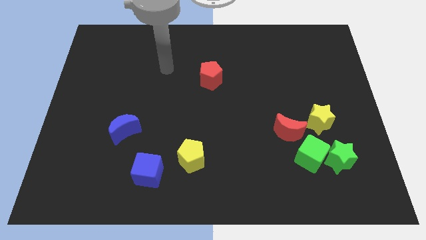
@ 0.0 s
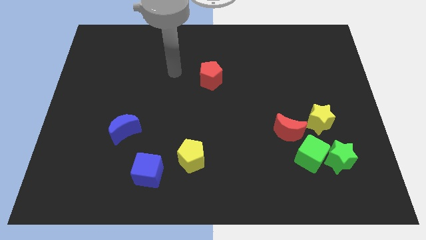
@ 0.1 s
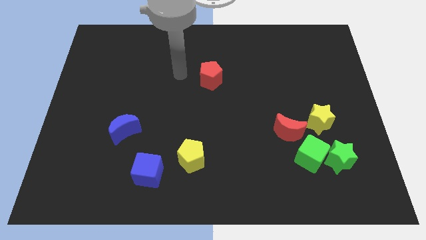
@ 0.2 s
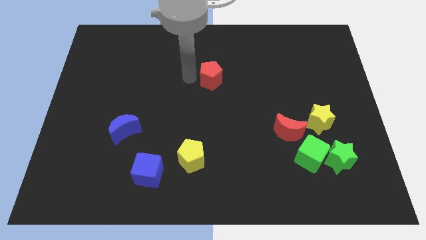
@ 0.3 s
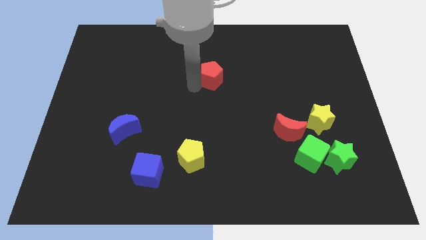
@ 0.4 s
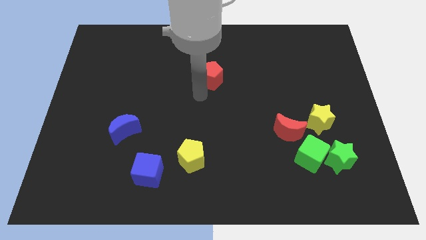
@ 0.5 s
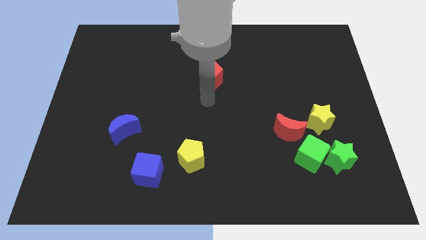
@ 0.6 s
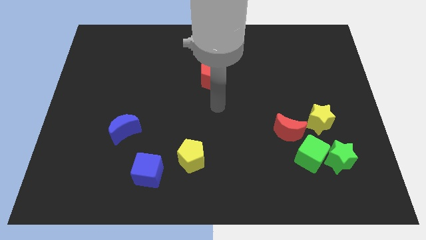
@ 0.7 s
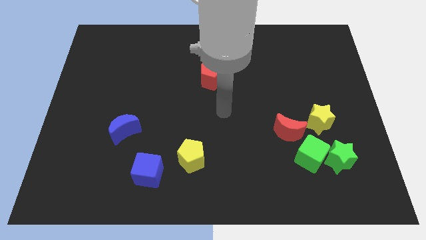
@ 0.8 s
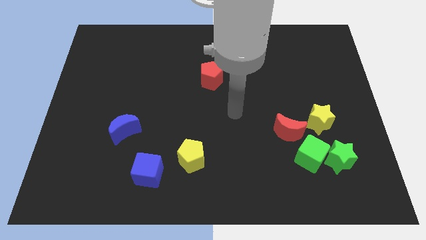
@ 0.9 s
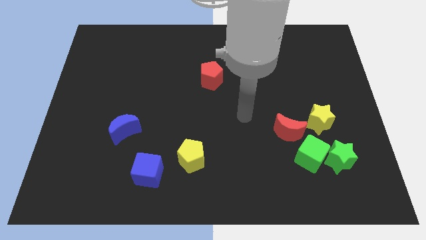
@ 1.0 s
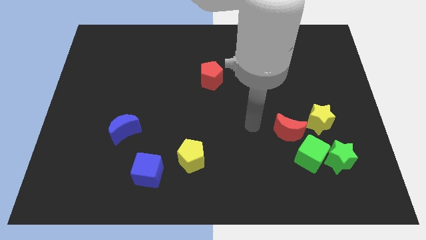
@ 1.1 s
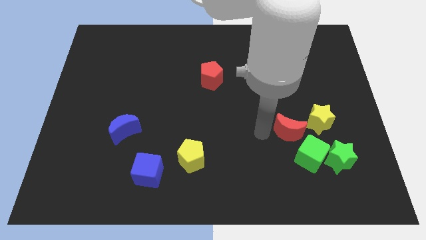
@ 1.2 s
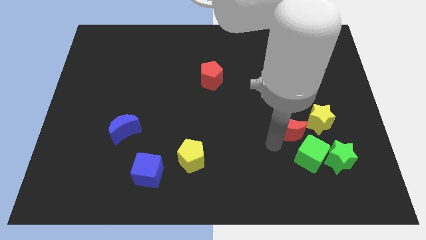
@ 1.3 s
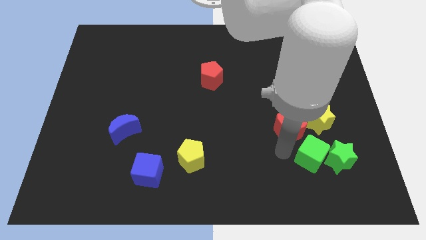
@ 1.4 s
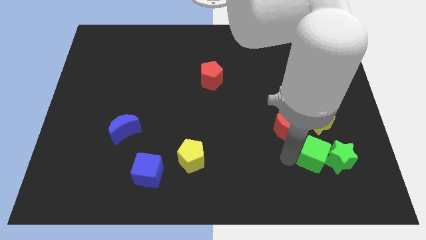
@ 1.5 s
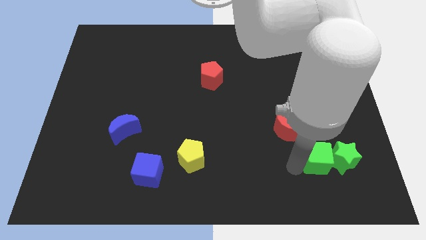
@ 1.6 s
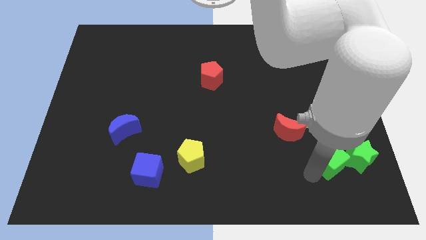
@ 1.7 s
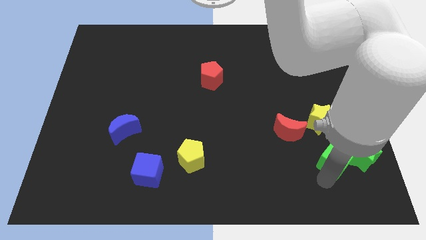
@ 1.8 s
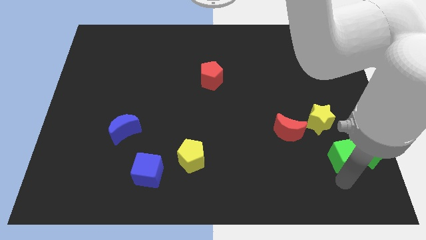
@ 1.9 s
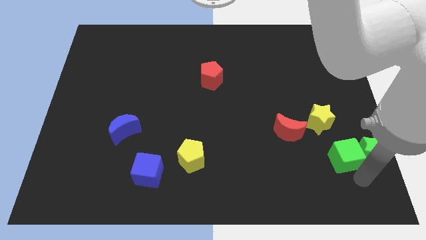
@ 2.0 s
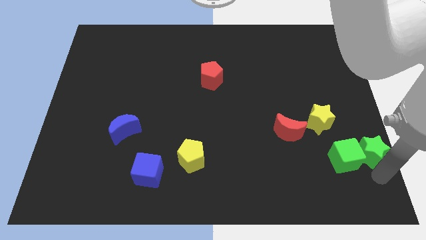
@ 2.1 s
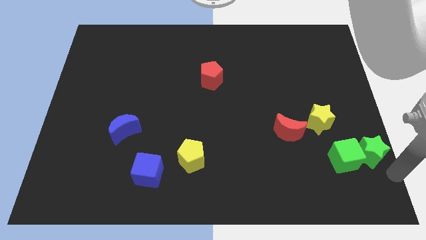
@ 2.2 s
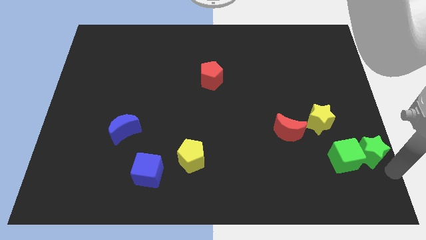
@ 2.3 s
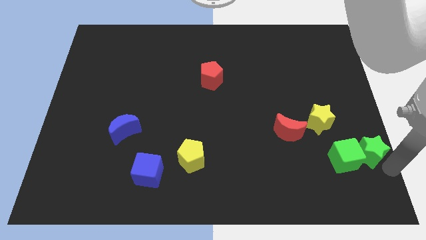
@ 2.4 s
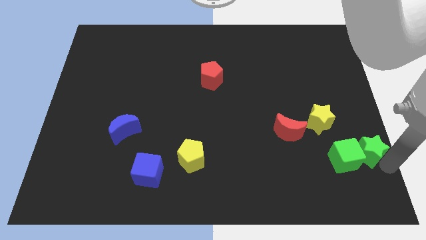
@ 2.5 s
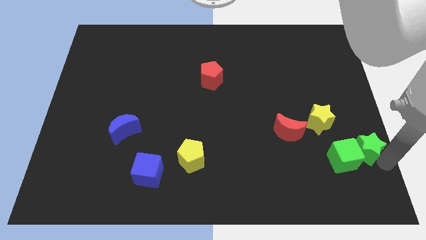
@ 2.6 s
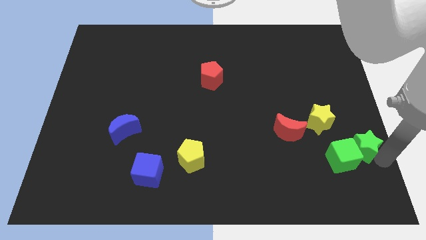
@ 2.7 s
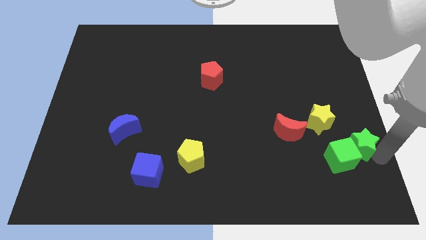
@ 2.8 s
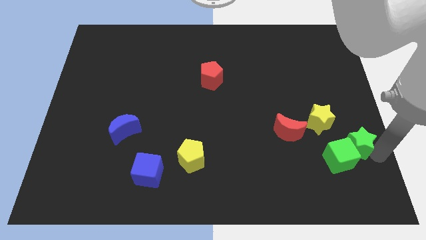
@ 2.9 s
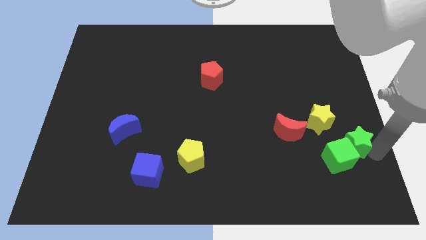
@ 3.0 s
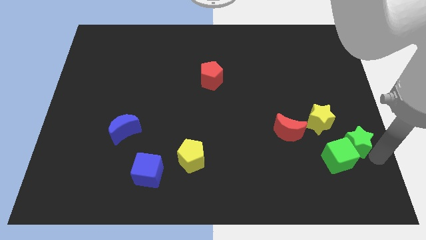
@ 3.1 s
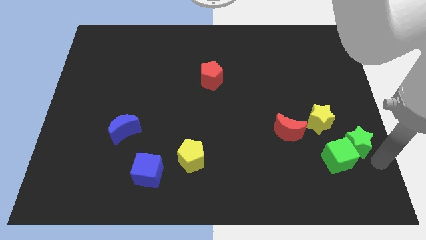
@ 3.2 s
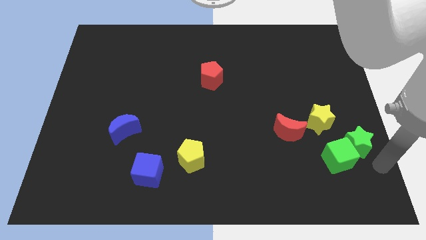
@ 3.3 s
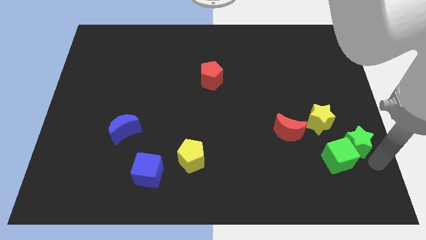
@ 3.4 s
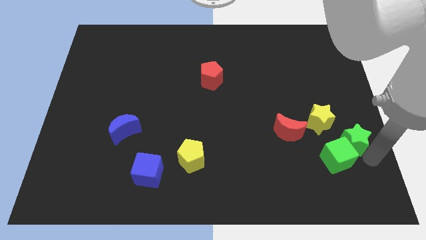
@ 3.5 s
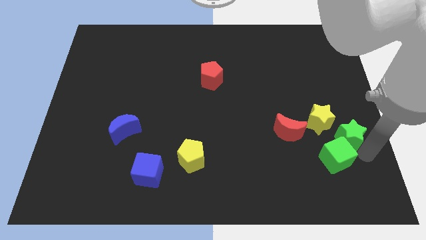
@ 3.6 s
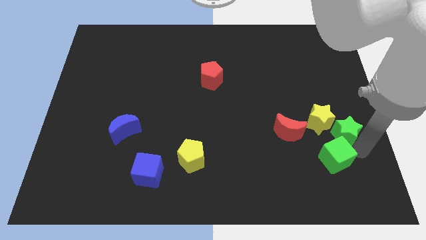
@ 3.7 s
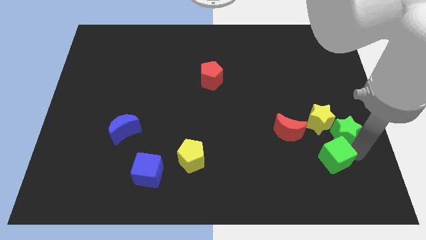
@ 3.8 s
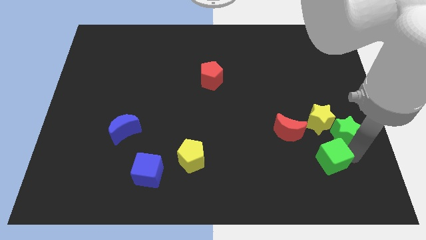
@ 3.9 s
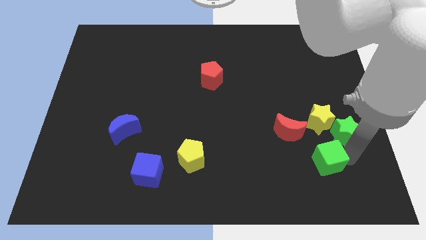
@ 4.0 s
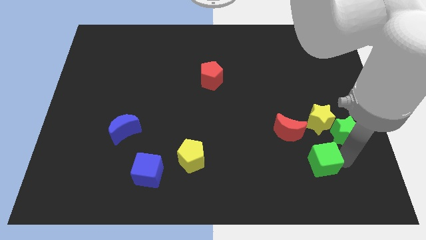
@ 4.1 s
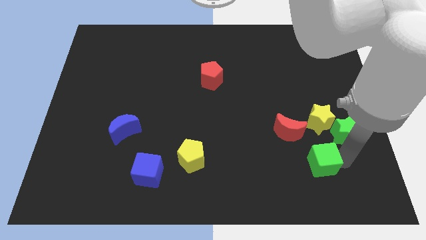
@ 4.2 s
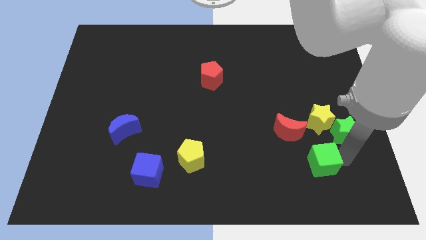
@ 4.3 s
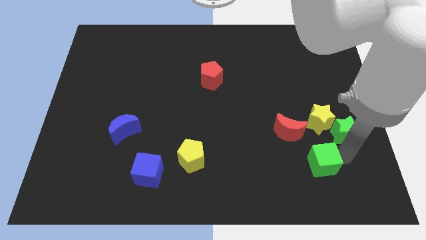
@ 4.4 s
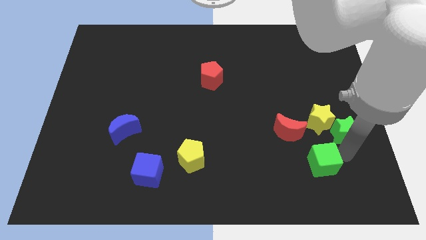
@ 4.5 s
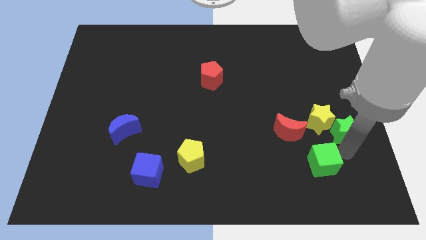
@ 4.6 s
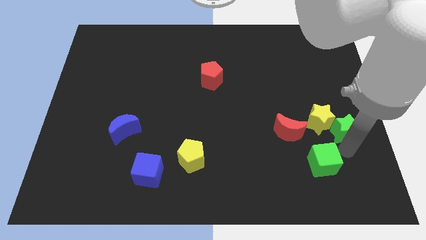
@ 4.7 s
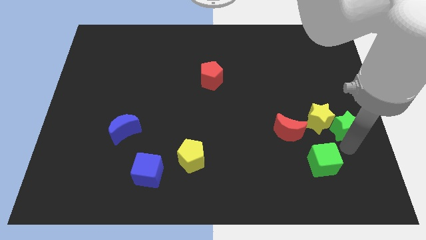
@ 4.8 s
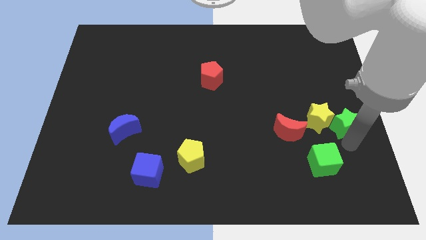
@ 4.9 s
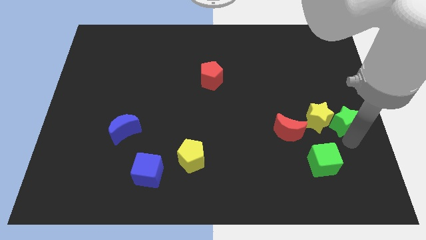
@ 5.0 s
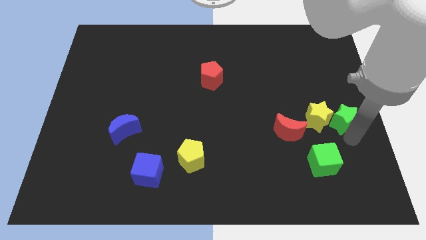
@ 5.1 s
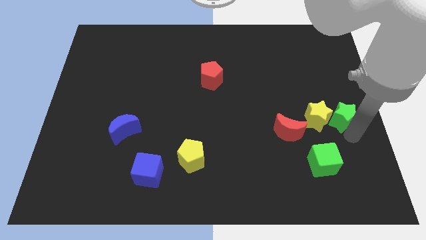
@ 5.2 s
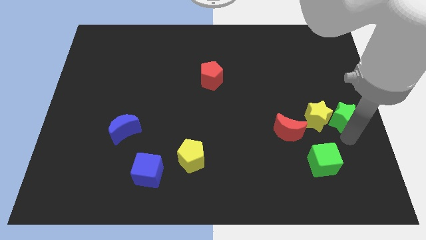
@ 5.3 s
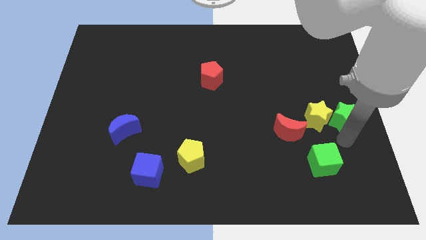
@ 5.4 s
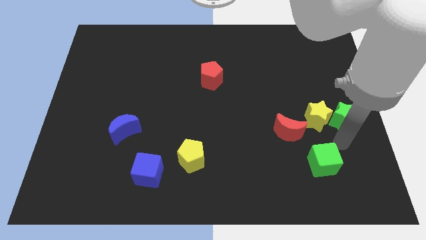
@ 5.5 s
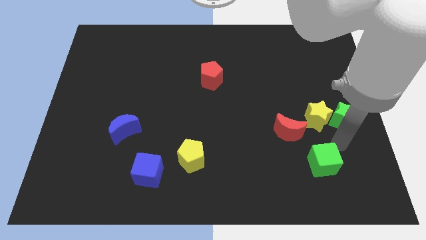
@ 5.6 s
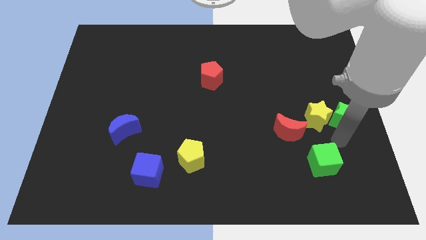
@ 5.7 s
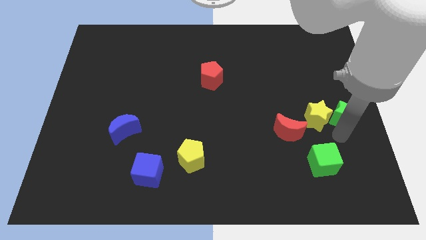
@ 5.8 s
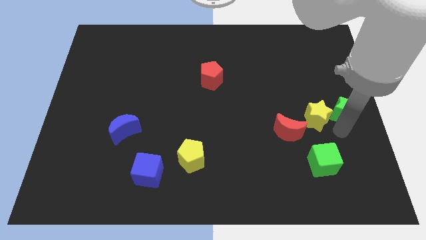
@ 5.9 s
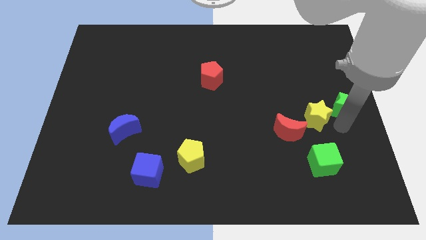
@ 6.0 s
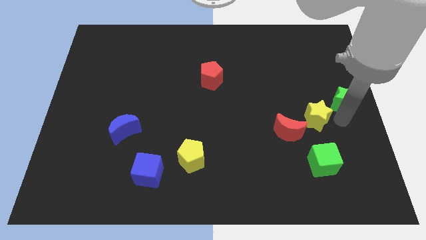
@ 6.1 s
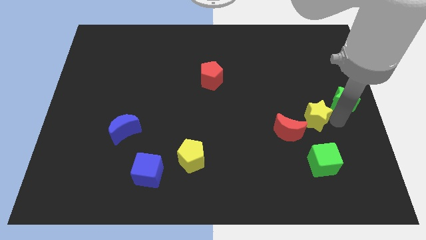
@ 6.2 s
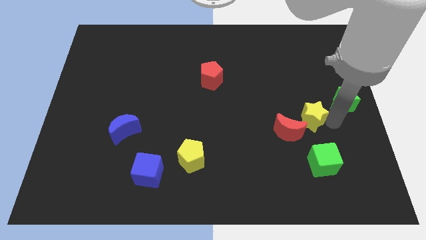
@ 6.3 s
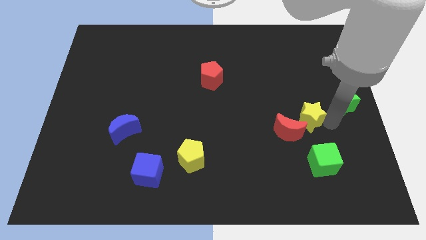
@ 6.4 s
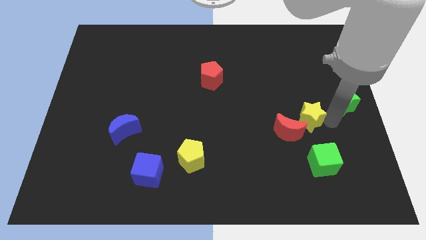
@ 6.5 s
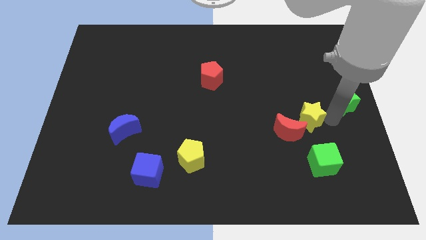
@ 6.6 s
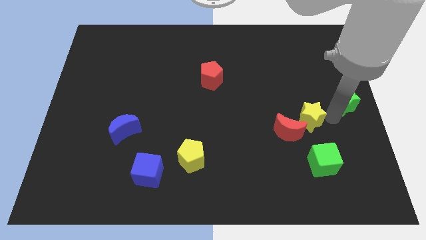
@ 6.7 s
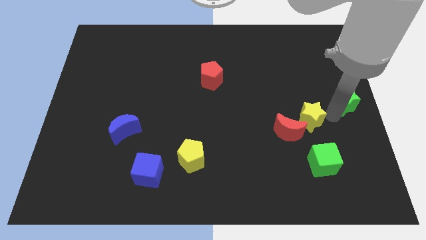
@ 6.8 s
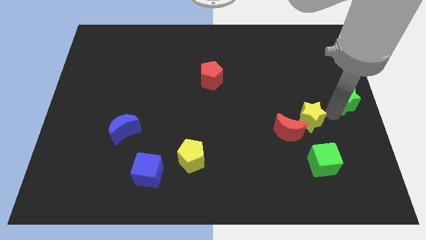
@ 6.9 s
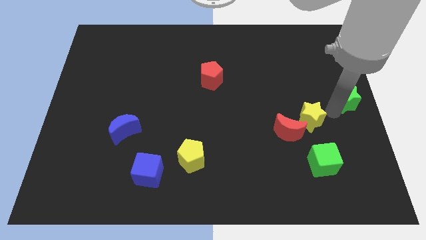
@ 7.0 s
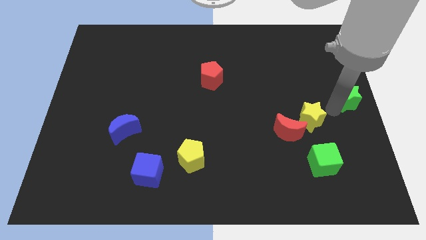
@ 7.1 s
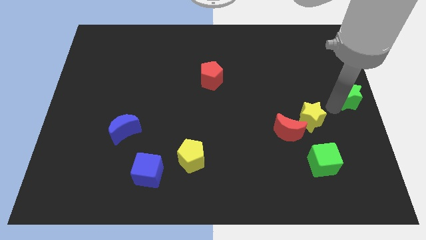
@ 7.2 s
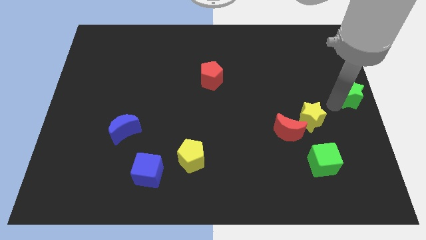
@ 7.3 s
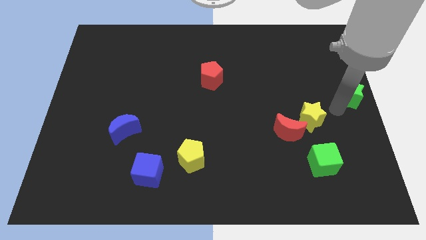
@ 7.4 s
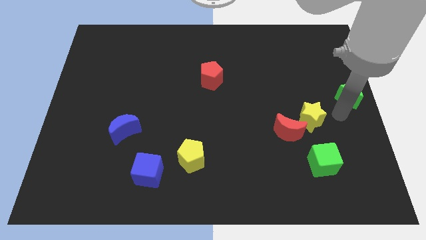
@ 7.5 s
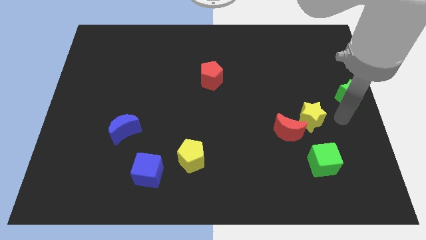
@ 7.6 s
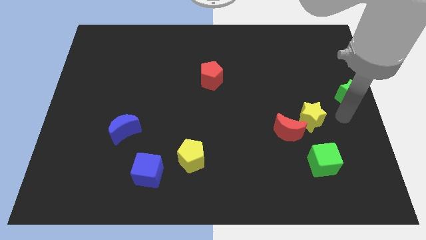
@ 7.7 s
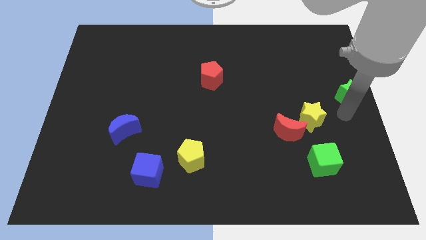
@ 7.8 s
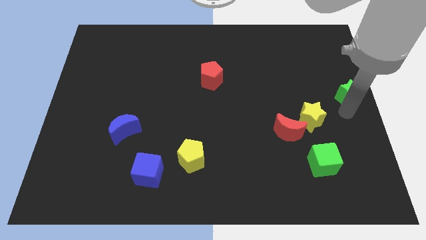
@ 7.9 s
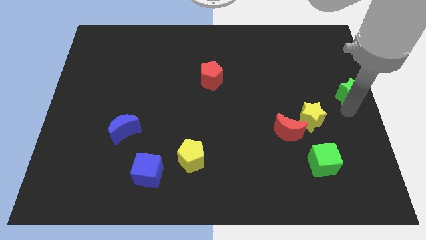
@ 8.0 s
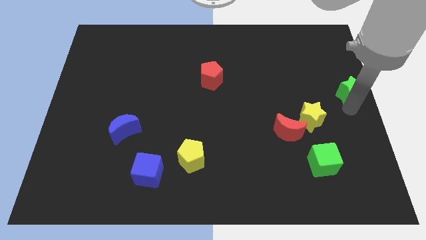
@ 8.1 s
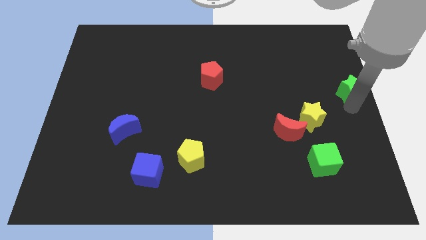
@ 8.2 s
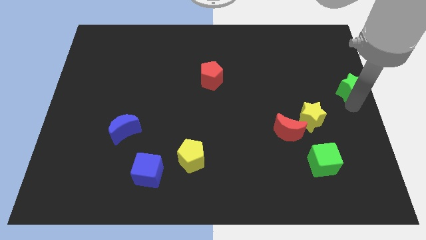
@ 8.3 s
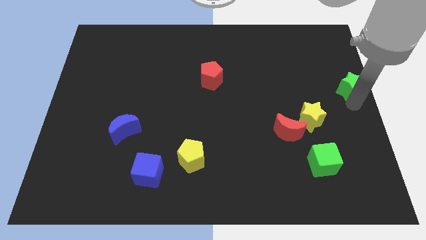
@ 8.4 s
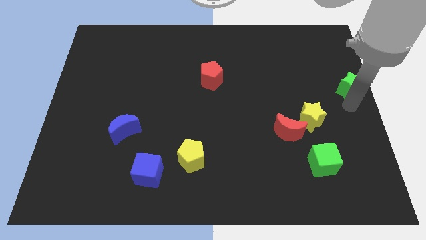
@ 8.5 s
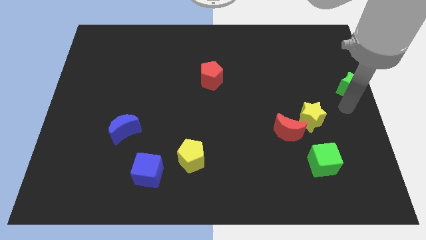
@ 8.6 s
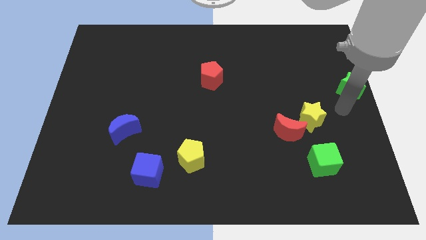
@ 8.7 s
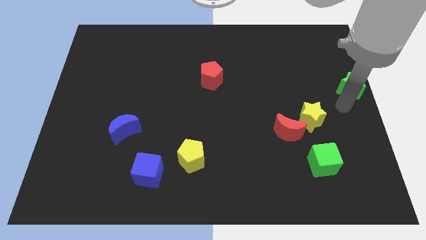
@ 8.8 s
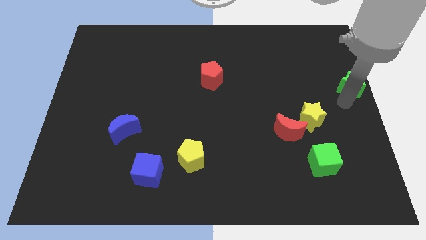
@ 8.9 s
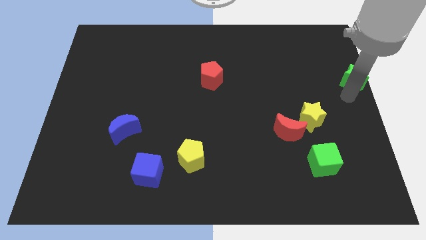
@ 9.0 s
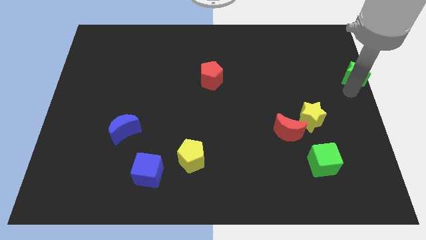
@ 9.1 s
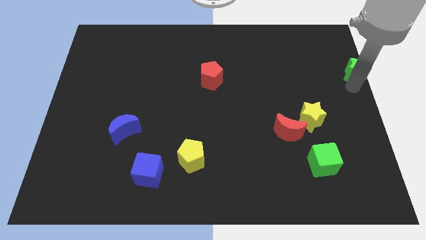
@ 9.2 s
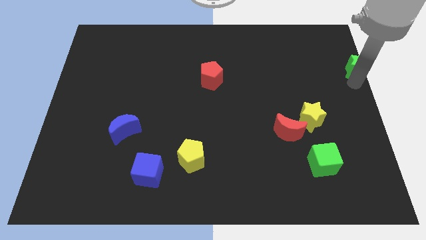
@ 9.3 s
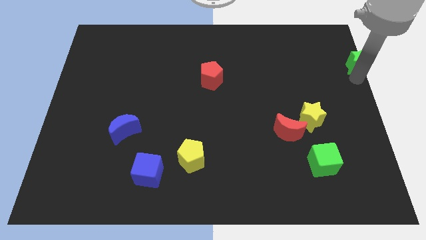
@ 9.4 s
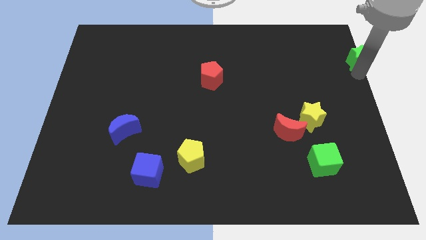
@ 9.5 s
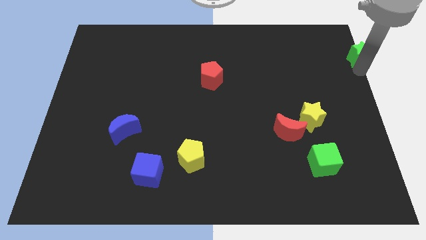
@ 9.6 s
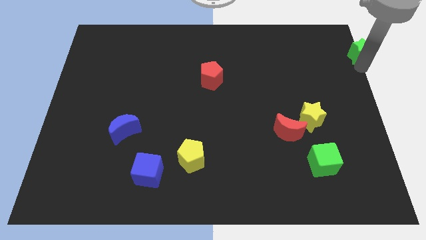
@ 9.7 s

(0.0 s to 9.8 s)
put the green star to the top right of the board
